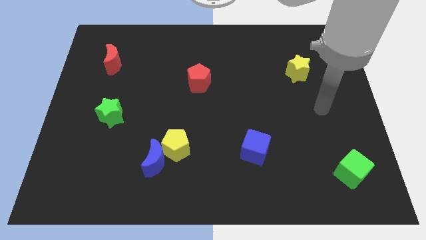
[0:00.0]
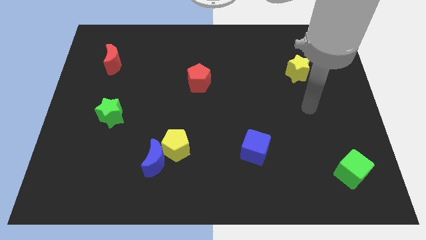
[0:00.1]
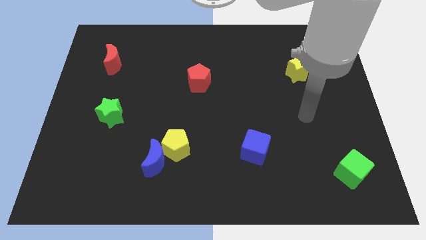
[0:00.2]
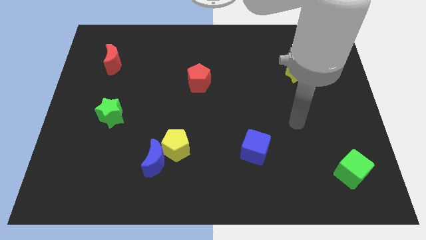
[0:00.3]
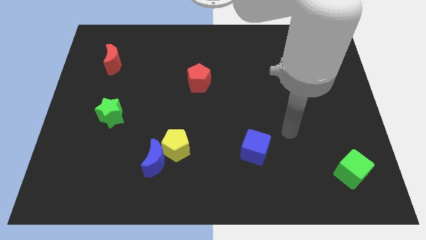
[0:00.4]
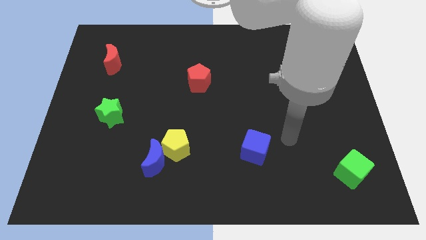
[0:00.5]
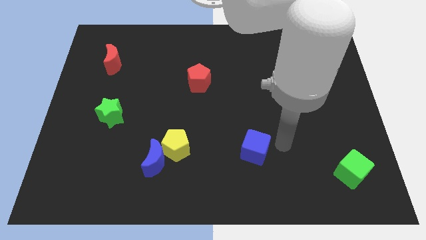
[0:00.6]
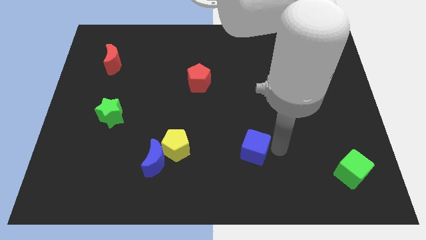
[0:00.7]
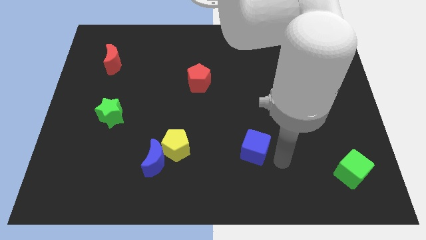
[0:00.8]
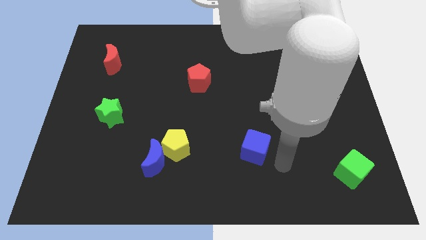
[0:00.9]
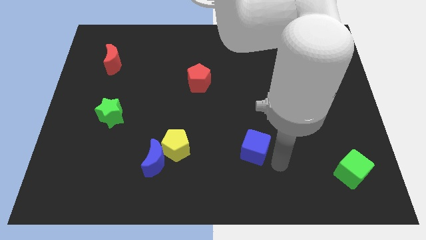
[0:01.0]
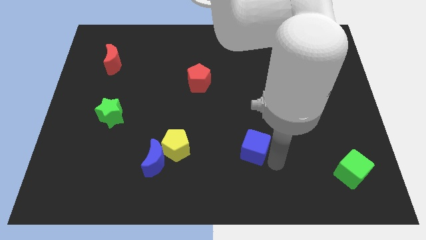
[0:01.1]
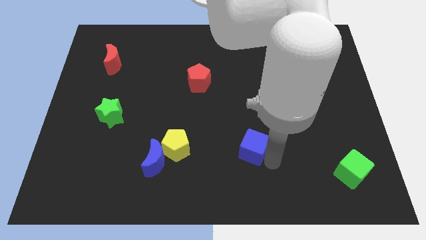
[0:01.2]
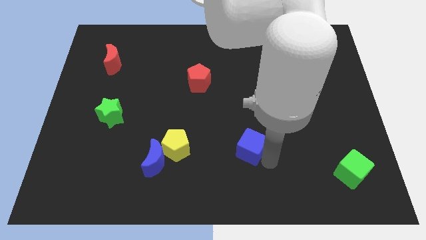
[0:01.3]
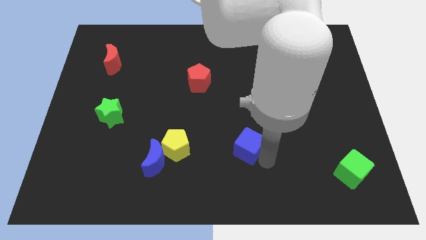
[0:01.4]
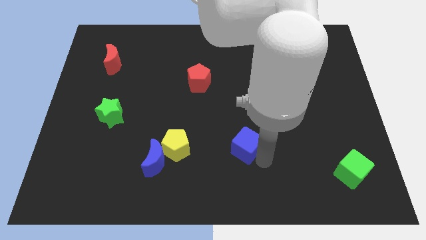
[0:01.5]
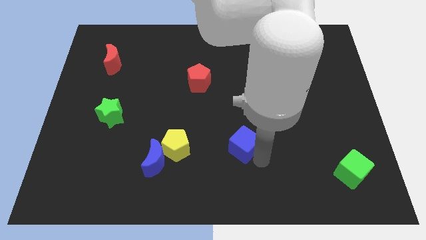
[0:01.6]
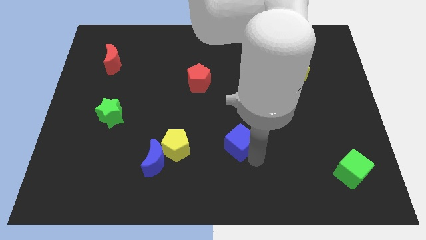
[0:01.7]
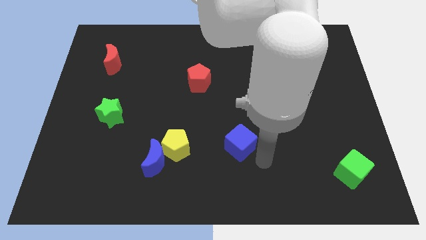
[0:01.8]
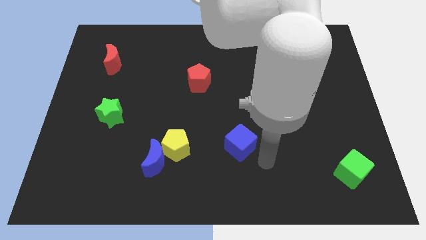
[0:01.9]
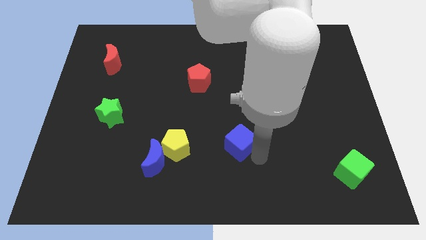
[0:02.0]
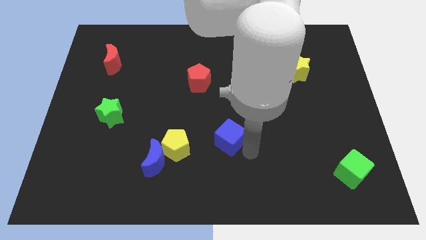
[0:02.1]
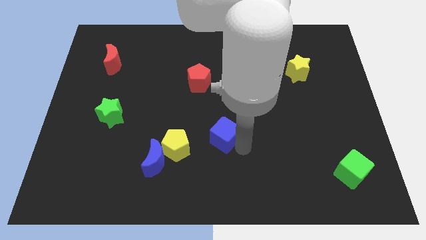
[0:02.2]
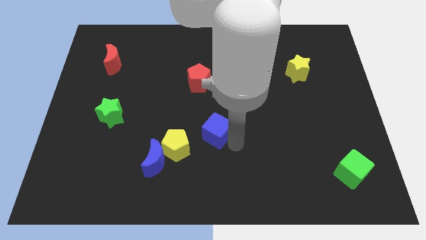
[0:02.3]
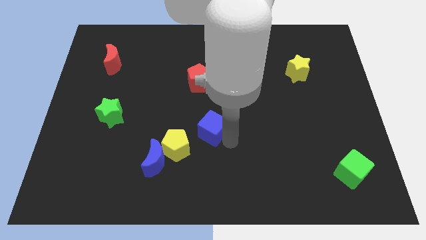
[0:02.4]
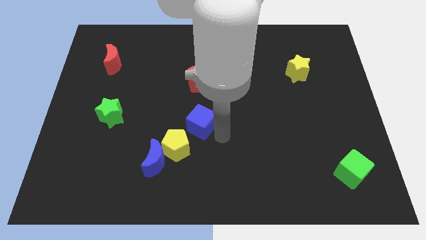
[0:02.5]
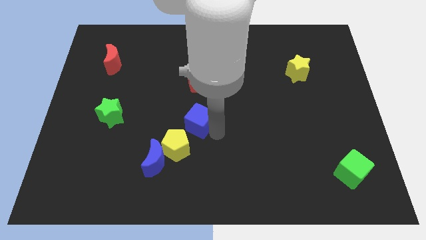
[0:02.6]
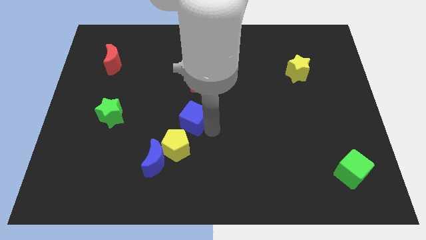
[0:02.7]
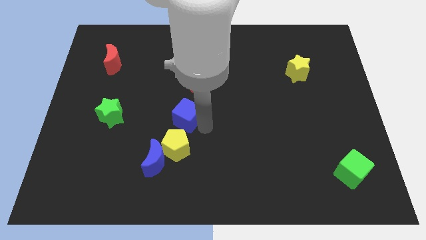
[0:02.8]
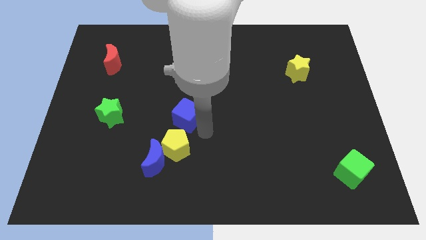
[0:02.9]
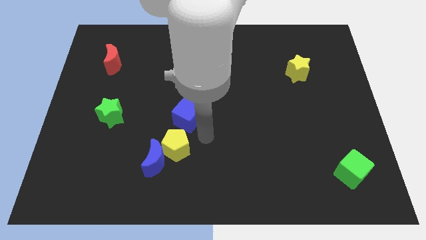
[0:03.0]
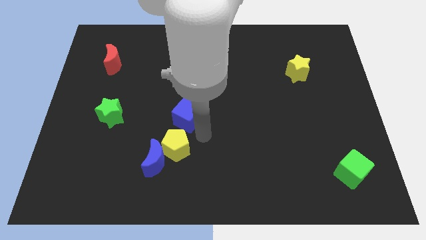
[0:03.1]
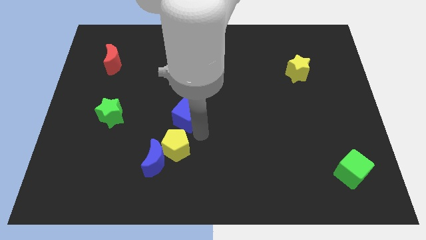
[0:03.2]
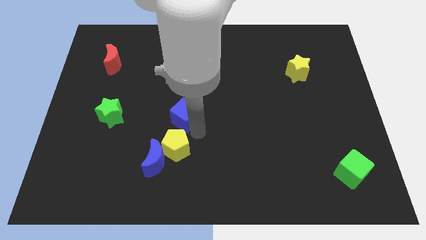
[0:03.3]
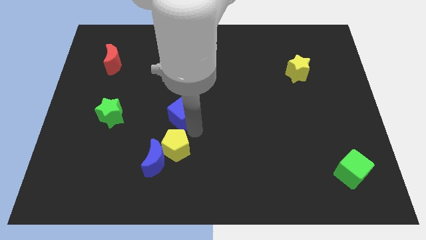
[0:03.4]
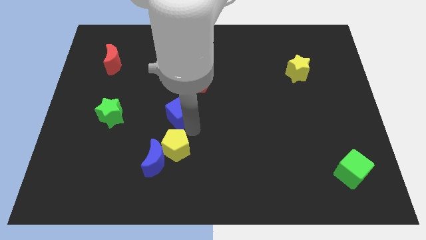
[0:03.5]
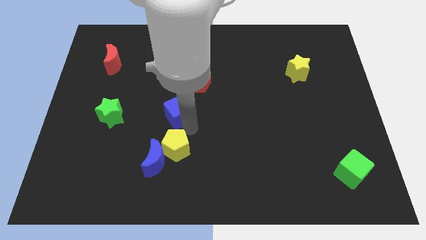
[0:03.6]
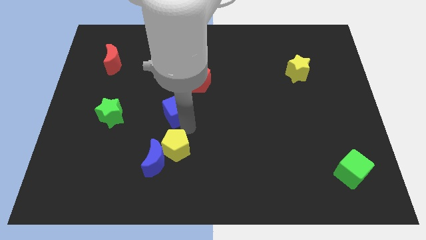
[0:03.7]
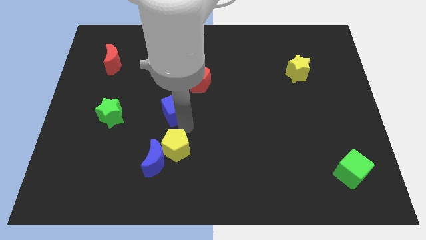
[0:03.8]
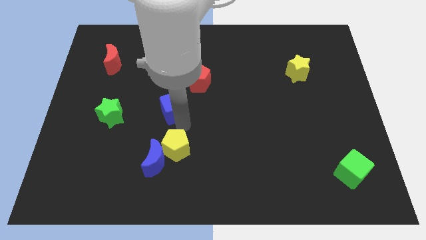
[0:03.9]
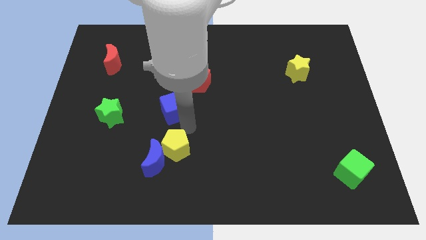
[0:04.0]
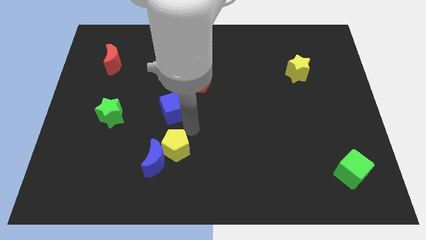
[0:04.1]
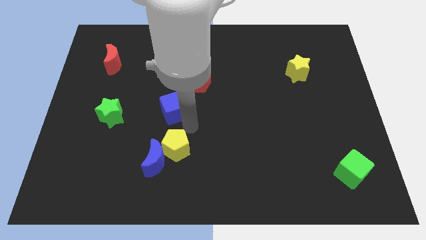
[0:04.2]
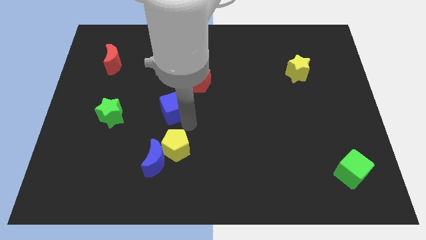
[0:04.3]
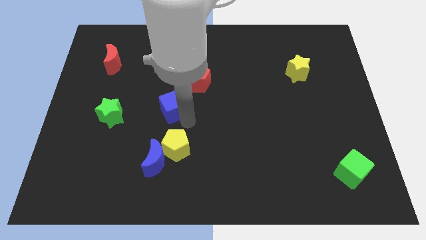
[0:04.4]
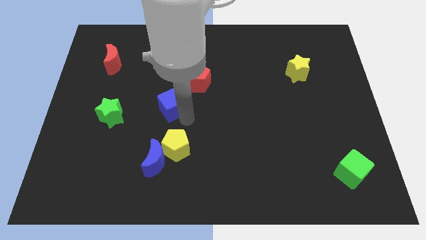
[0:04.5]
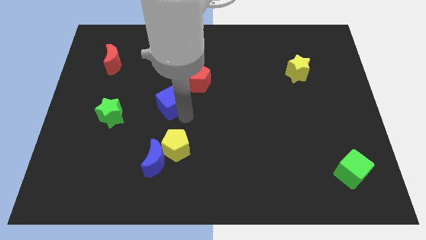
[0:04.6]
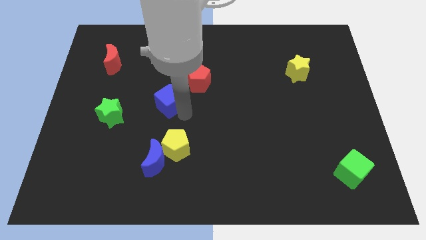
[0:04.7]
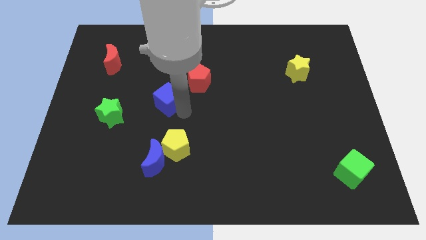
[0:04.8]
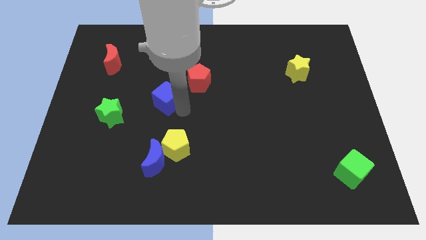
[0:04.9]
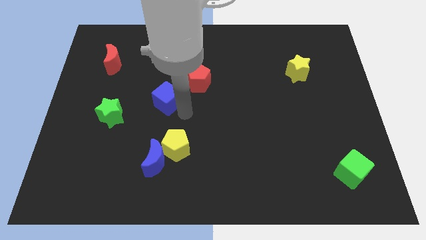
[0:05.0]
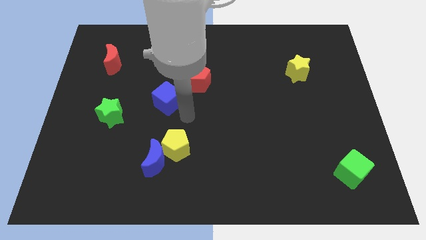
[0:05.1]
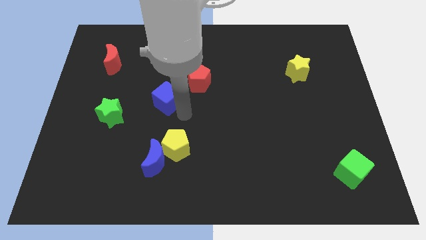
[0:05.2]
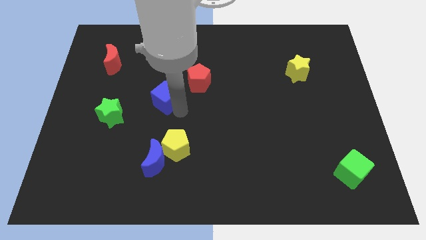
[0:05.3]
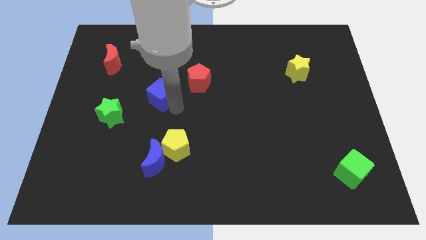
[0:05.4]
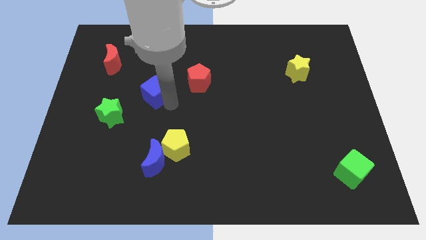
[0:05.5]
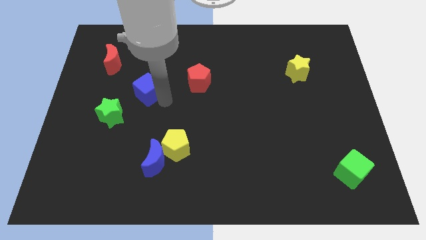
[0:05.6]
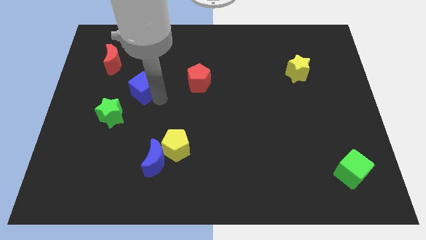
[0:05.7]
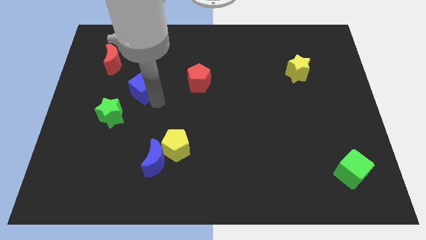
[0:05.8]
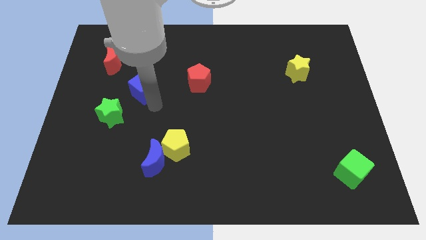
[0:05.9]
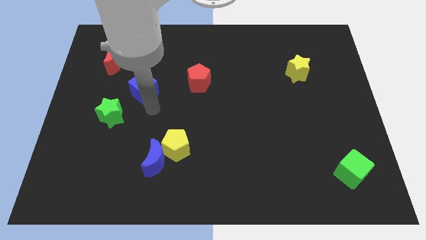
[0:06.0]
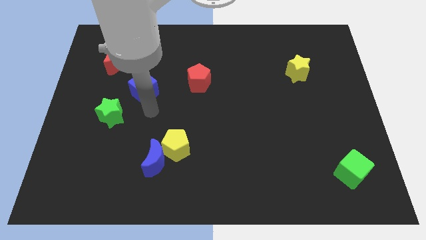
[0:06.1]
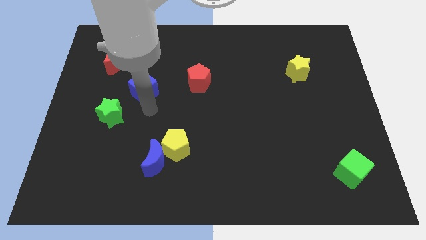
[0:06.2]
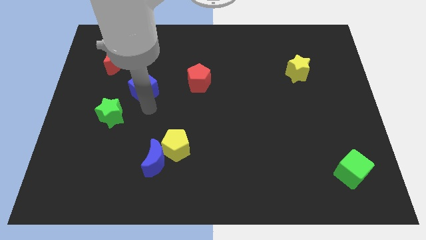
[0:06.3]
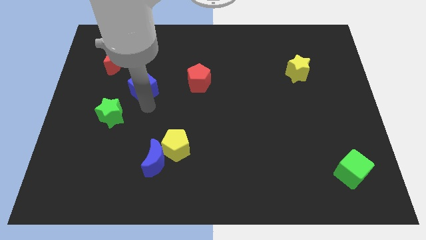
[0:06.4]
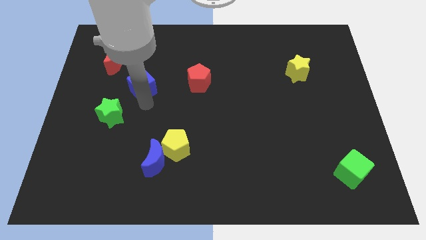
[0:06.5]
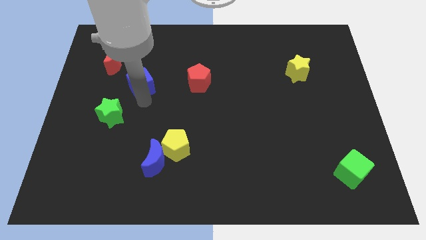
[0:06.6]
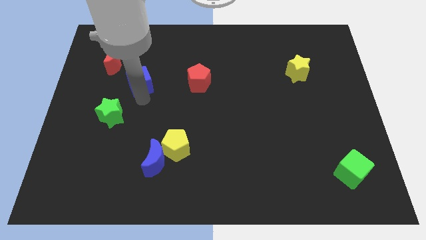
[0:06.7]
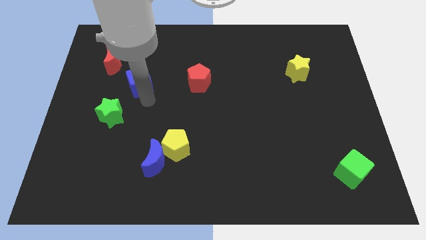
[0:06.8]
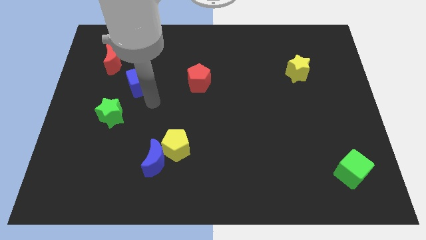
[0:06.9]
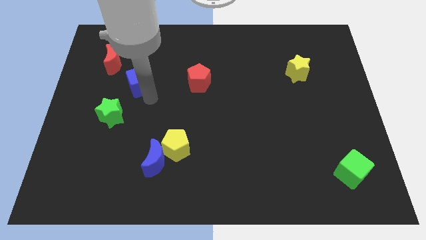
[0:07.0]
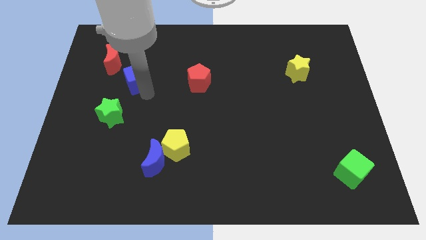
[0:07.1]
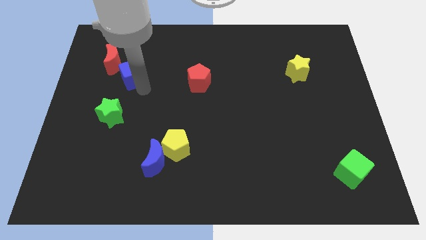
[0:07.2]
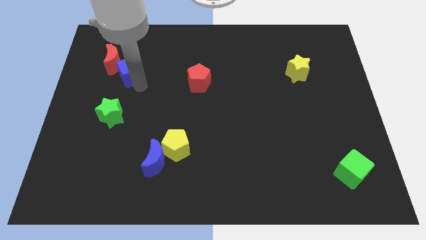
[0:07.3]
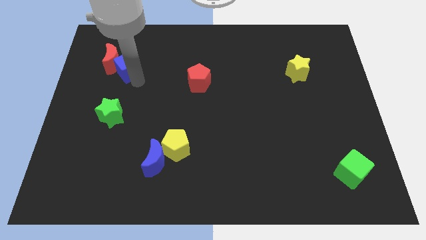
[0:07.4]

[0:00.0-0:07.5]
put the blue cube close to the red moon
